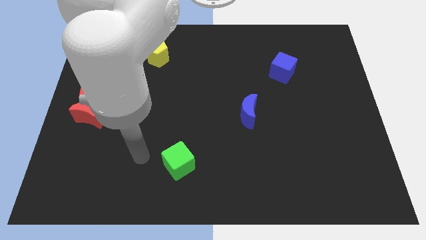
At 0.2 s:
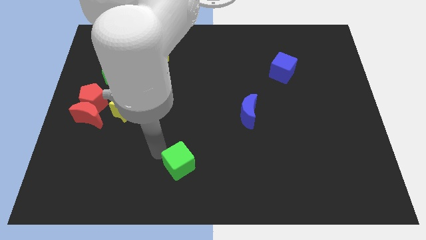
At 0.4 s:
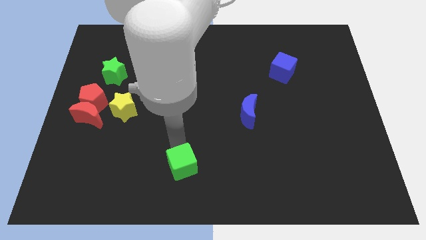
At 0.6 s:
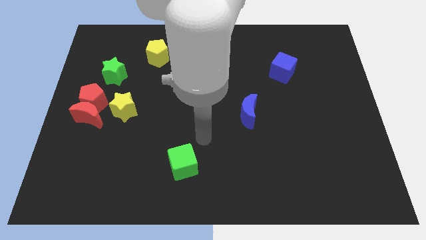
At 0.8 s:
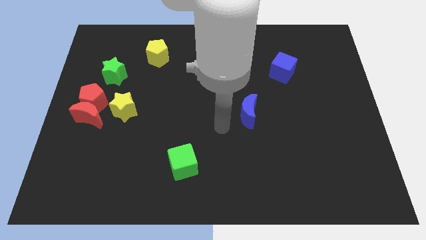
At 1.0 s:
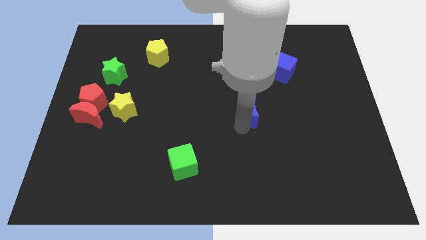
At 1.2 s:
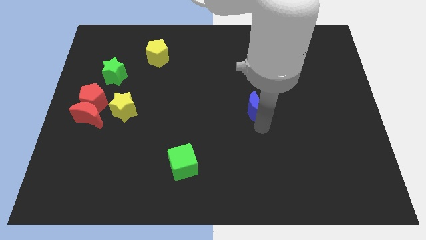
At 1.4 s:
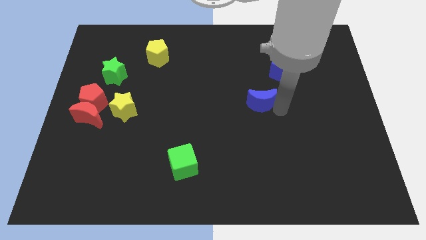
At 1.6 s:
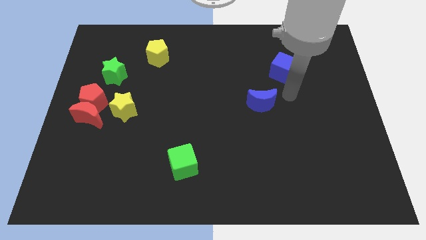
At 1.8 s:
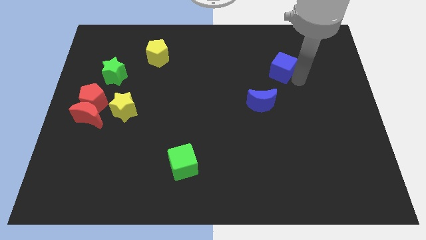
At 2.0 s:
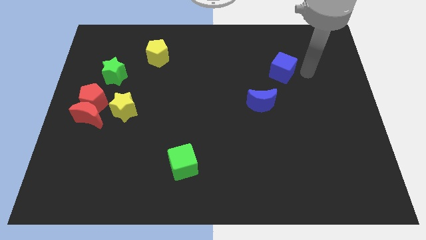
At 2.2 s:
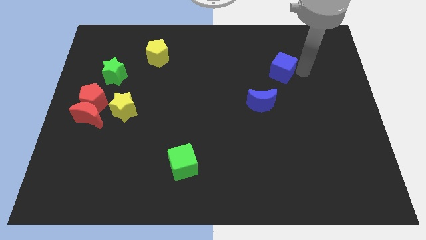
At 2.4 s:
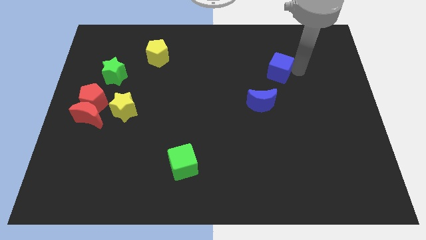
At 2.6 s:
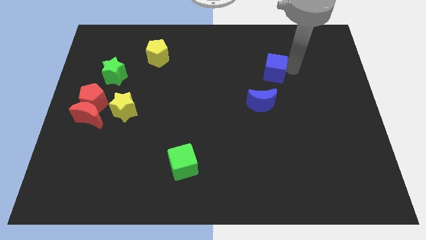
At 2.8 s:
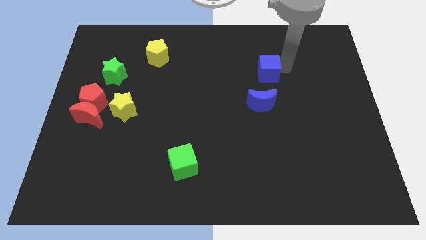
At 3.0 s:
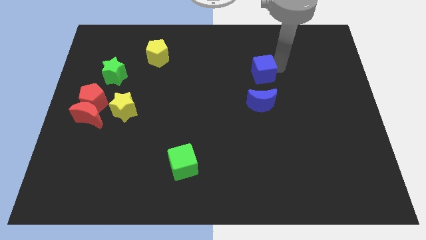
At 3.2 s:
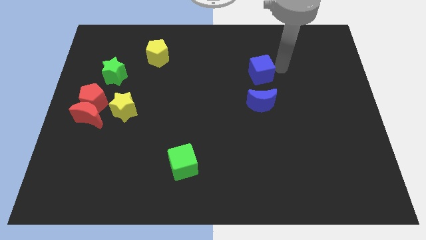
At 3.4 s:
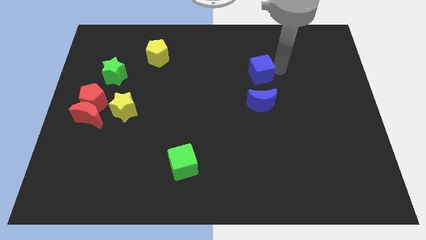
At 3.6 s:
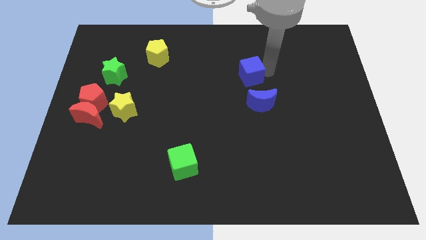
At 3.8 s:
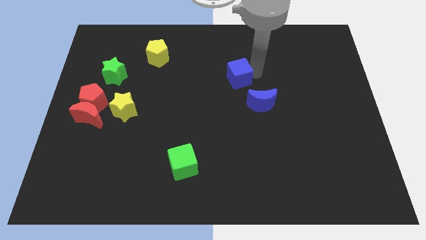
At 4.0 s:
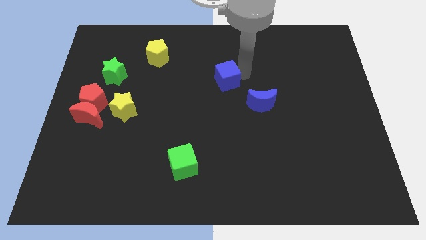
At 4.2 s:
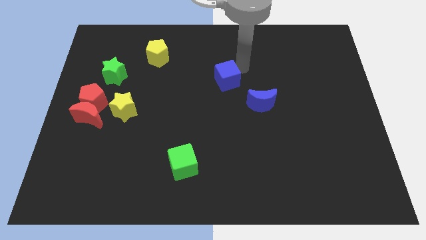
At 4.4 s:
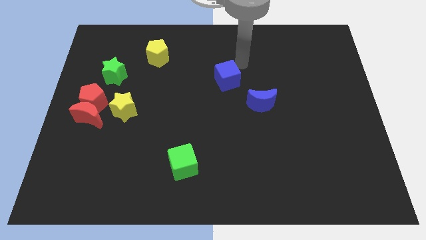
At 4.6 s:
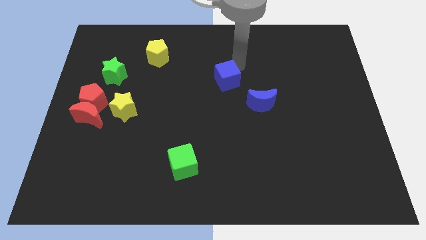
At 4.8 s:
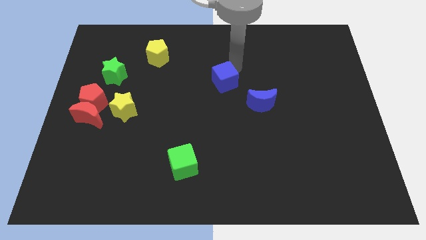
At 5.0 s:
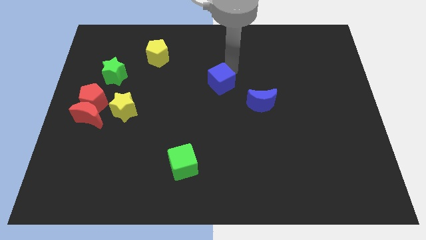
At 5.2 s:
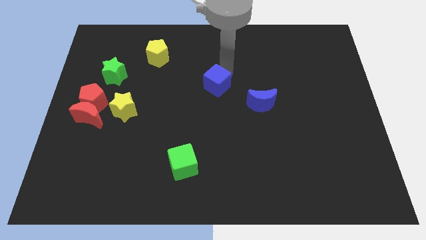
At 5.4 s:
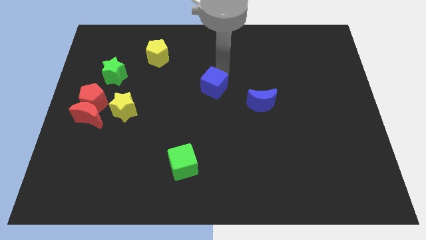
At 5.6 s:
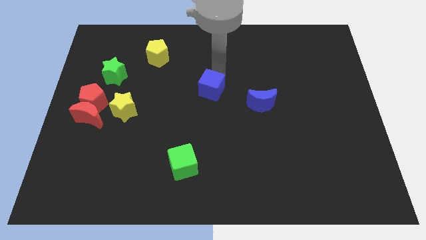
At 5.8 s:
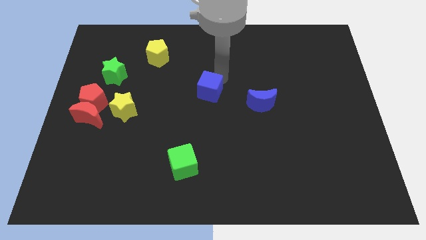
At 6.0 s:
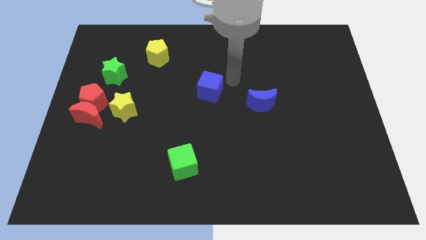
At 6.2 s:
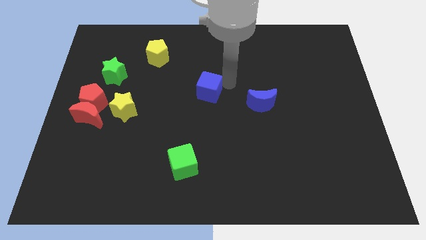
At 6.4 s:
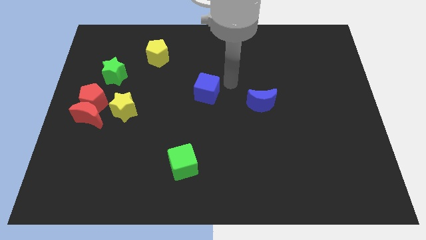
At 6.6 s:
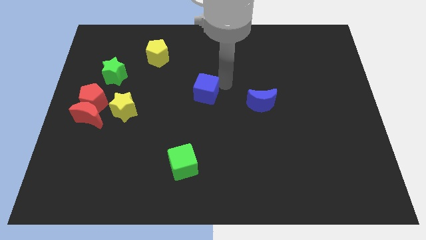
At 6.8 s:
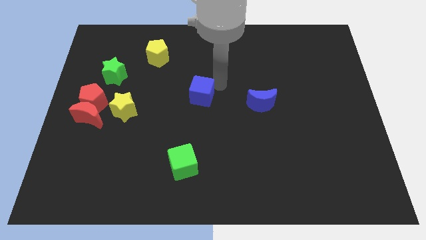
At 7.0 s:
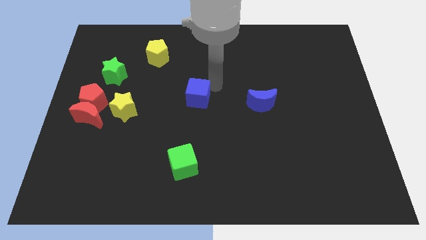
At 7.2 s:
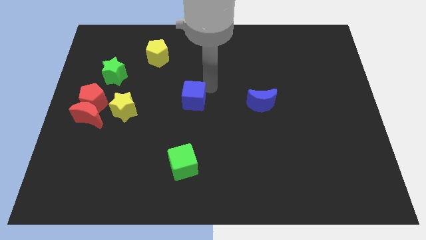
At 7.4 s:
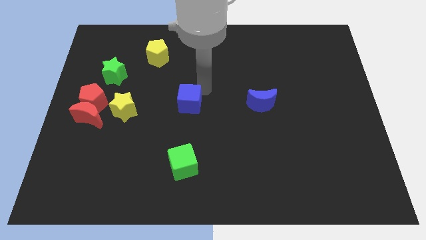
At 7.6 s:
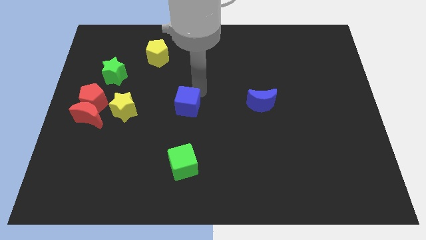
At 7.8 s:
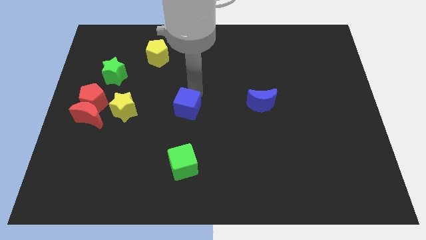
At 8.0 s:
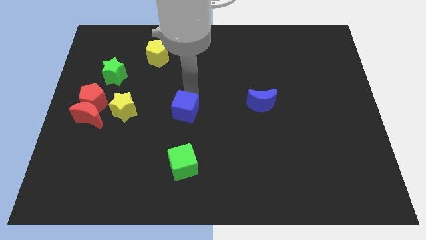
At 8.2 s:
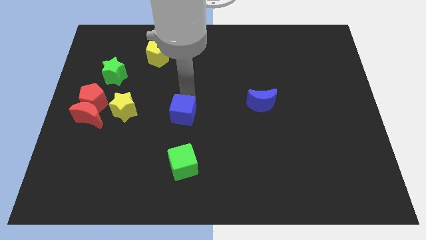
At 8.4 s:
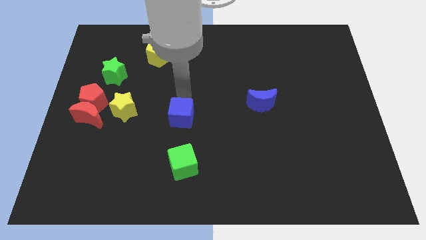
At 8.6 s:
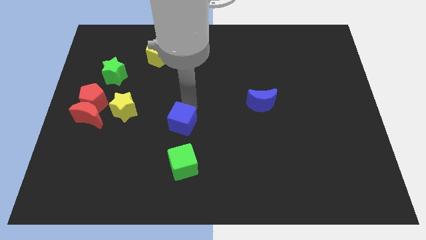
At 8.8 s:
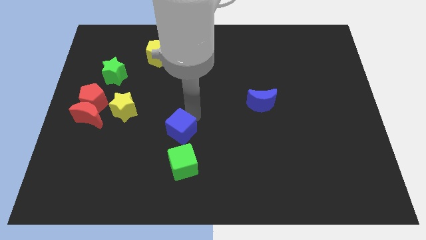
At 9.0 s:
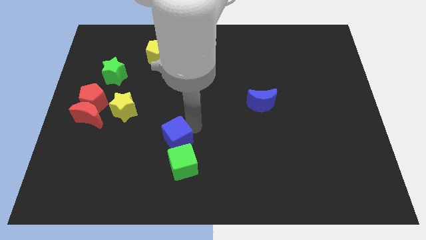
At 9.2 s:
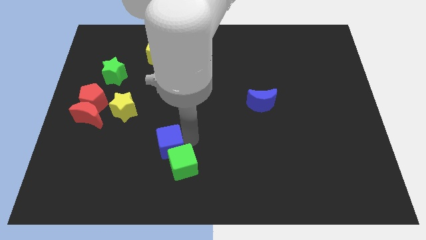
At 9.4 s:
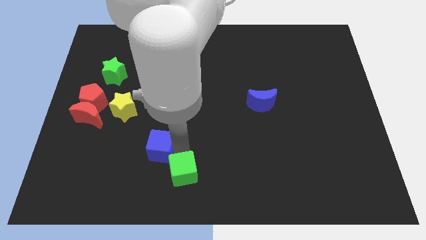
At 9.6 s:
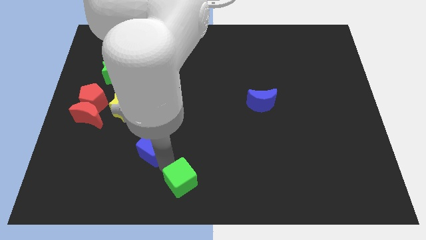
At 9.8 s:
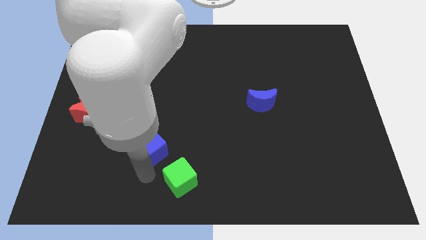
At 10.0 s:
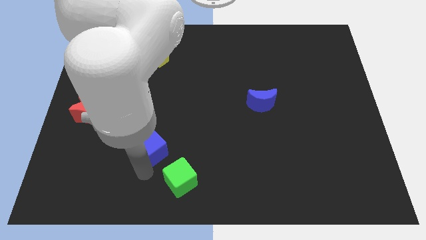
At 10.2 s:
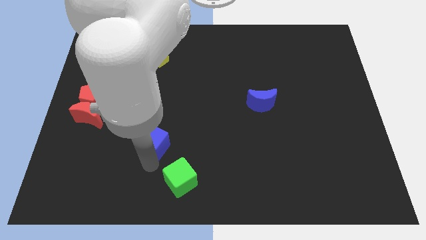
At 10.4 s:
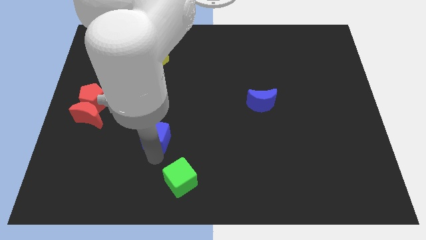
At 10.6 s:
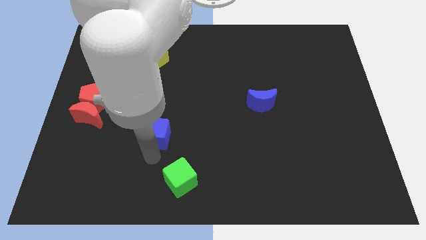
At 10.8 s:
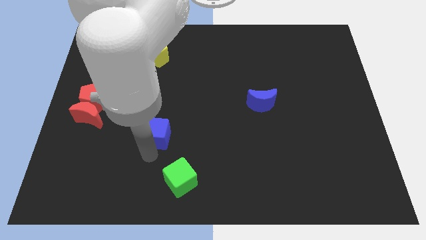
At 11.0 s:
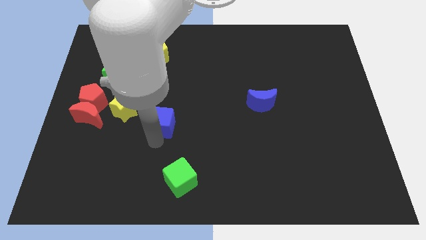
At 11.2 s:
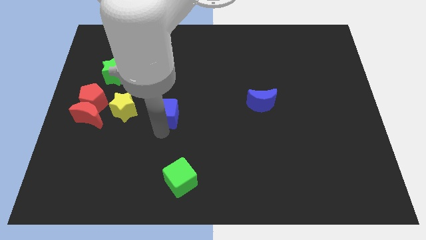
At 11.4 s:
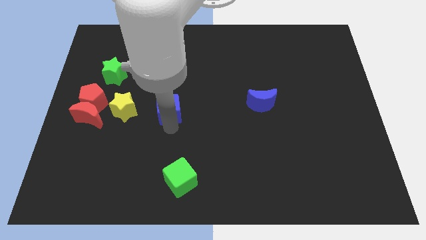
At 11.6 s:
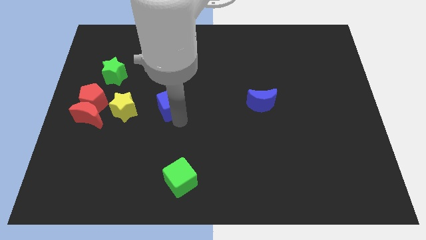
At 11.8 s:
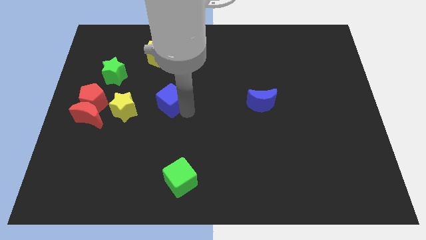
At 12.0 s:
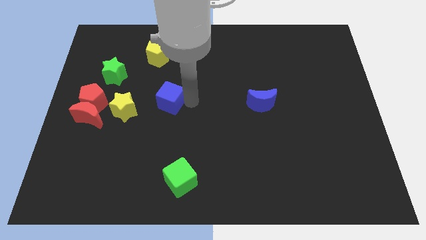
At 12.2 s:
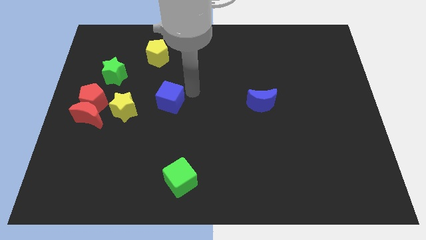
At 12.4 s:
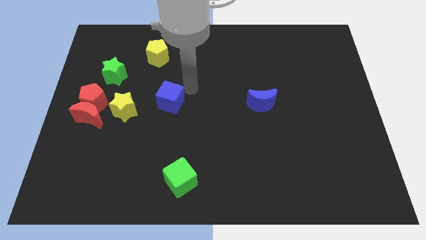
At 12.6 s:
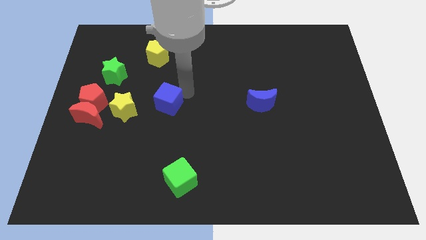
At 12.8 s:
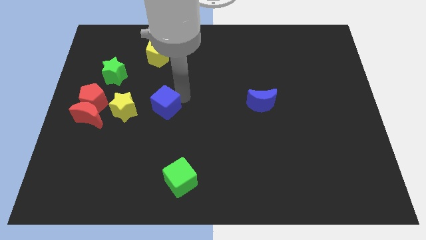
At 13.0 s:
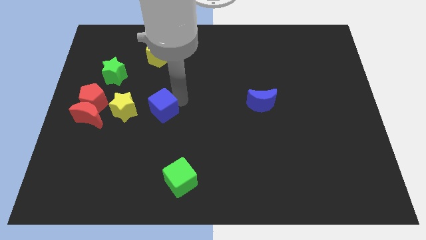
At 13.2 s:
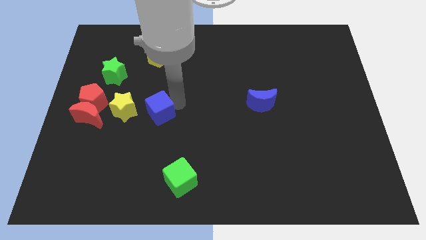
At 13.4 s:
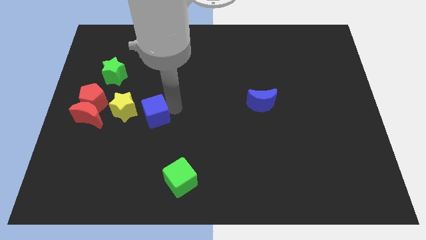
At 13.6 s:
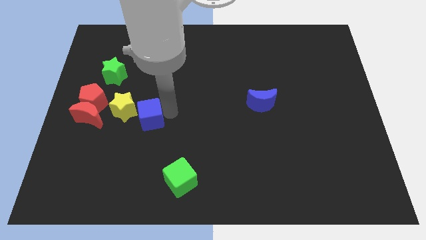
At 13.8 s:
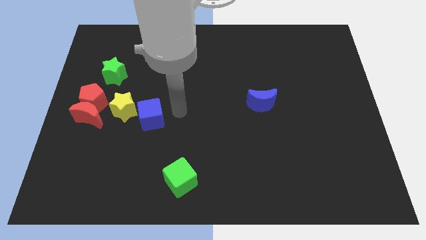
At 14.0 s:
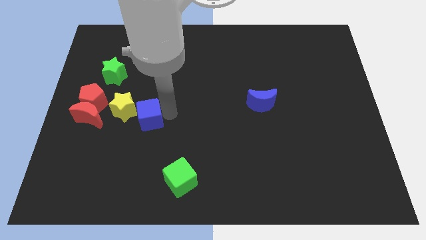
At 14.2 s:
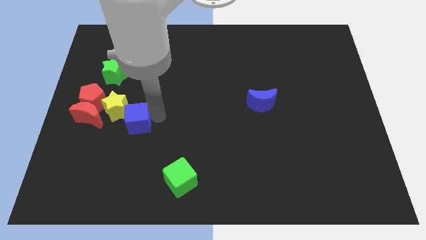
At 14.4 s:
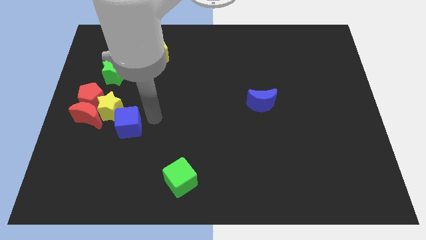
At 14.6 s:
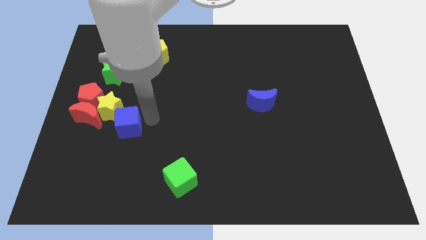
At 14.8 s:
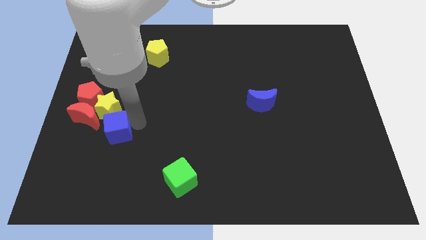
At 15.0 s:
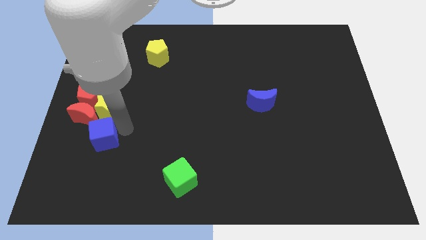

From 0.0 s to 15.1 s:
put the blue cube to the bottom side of the red pentagon
